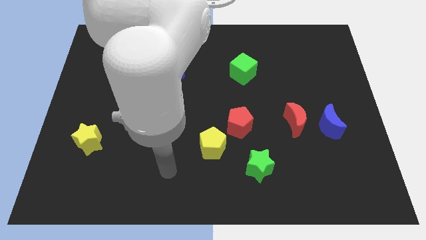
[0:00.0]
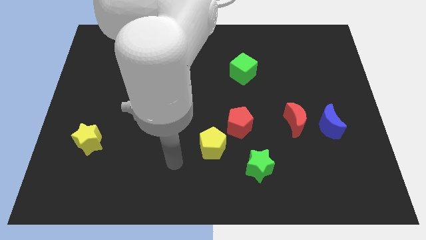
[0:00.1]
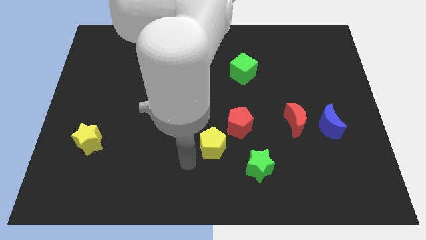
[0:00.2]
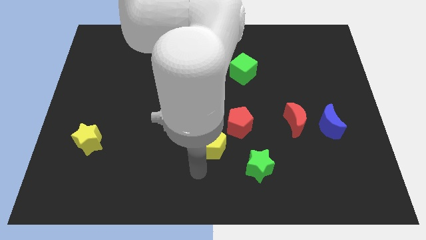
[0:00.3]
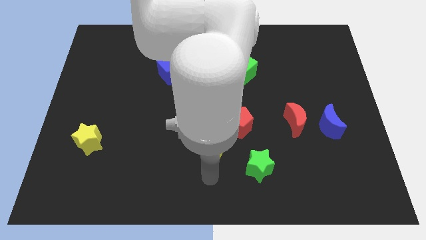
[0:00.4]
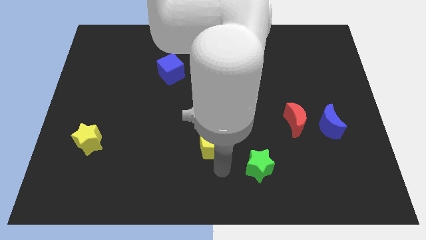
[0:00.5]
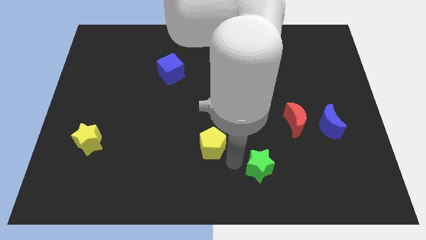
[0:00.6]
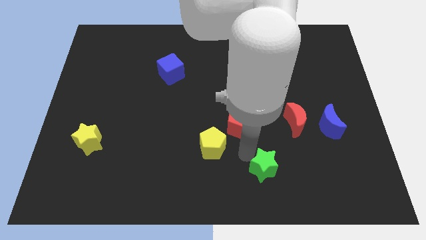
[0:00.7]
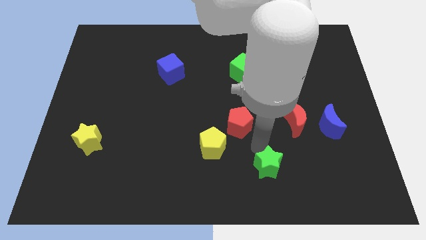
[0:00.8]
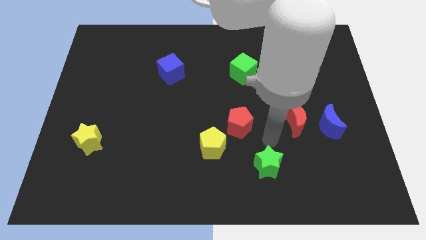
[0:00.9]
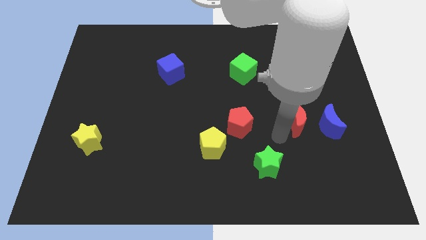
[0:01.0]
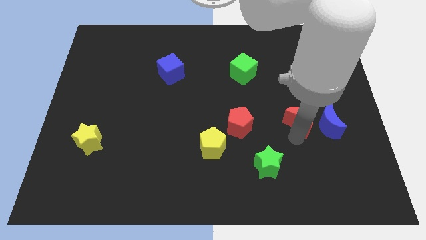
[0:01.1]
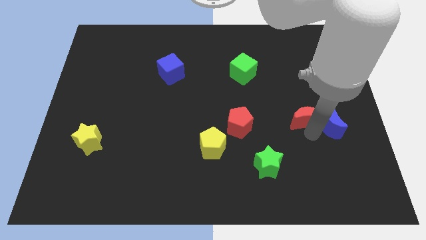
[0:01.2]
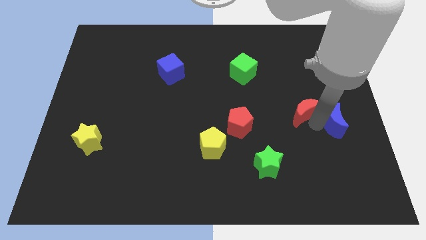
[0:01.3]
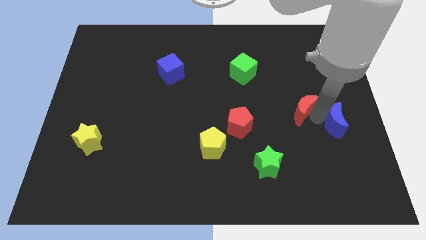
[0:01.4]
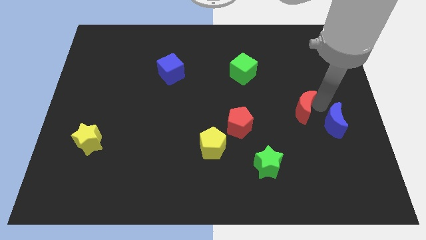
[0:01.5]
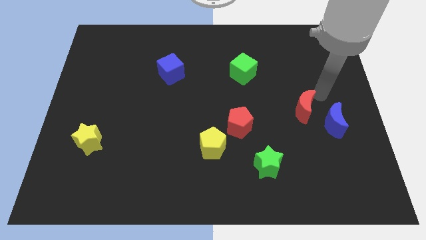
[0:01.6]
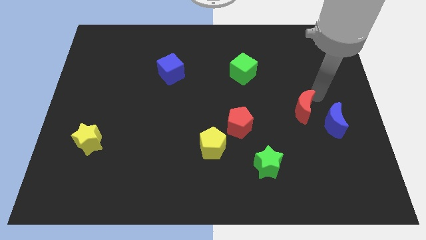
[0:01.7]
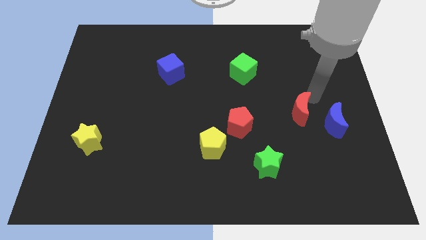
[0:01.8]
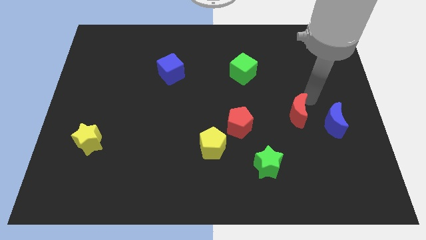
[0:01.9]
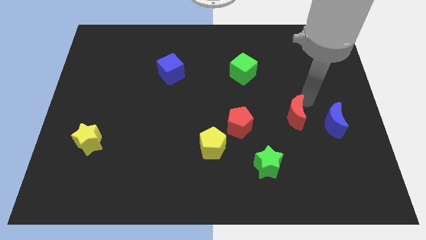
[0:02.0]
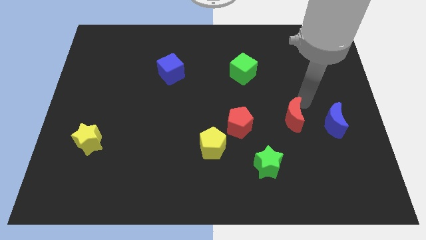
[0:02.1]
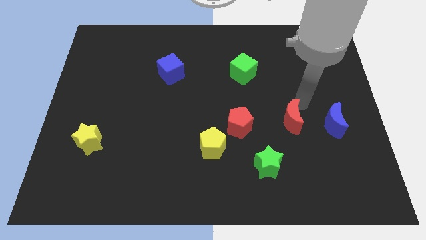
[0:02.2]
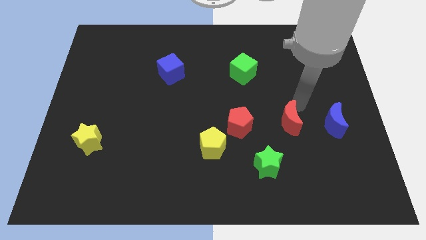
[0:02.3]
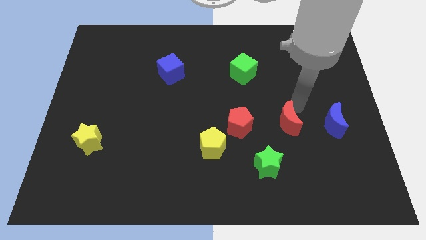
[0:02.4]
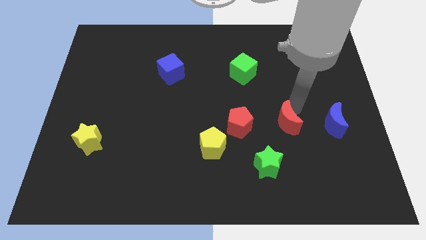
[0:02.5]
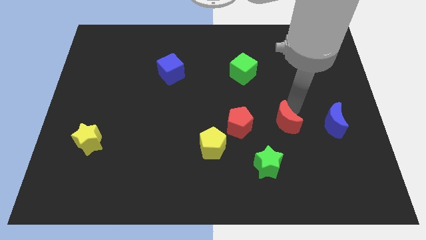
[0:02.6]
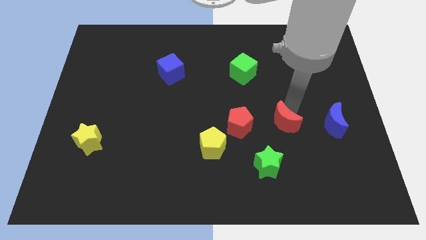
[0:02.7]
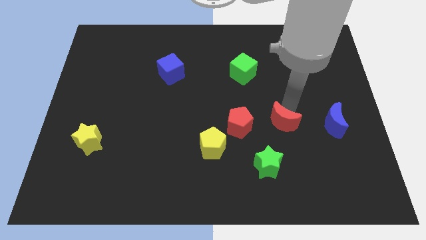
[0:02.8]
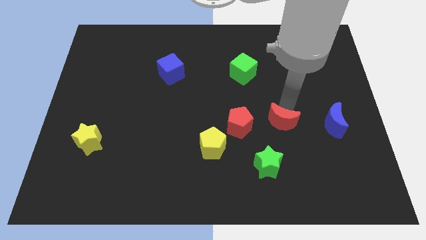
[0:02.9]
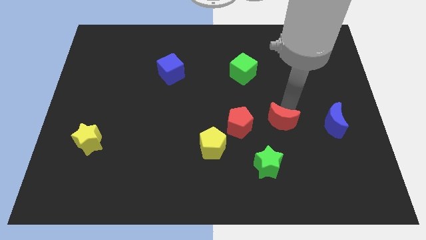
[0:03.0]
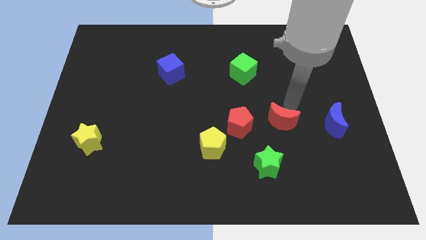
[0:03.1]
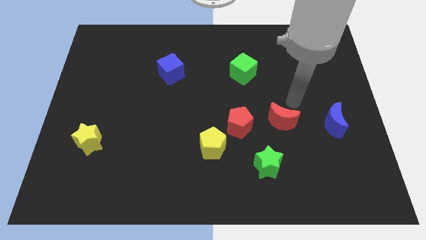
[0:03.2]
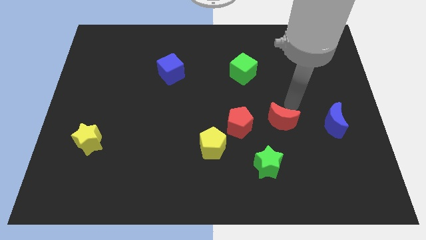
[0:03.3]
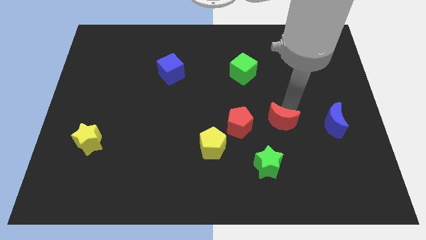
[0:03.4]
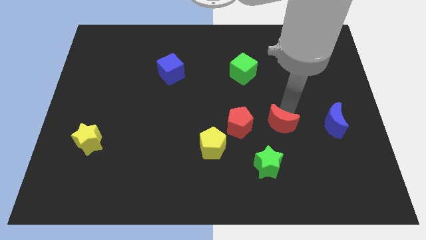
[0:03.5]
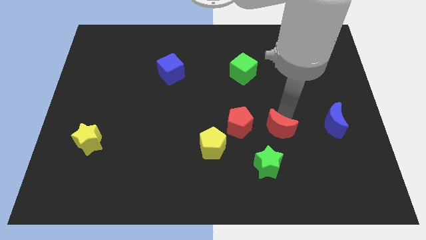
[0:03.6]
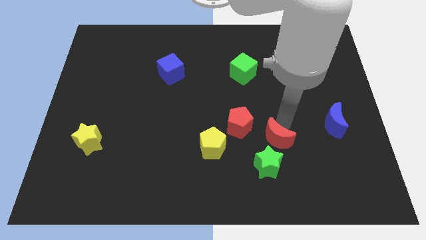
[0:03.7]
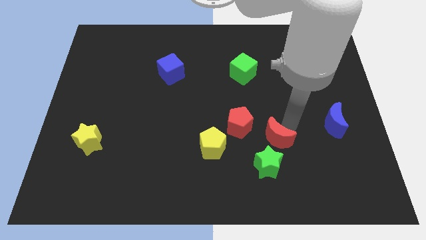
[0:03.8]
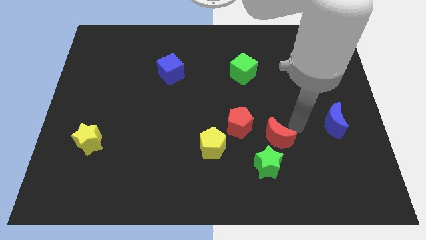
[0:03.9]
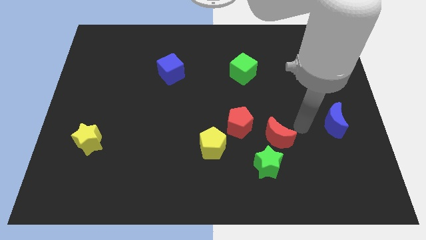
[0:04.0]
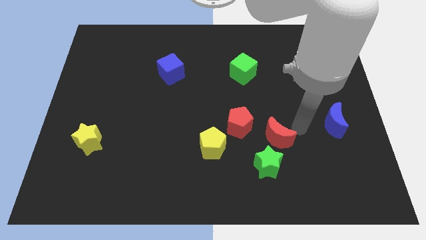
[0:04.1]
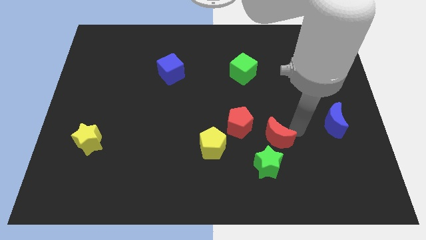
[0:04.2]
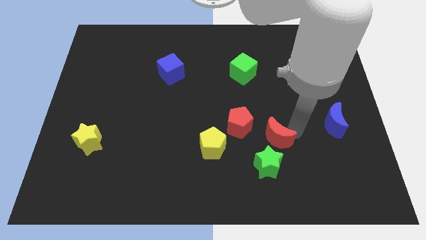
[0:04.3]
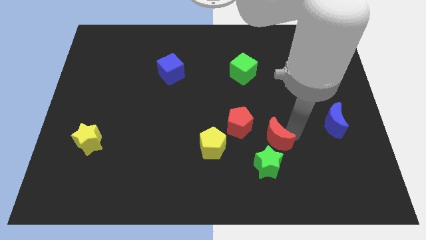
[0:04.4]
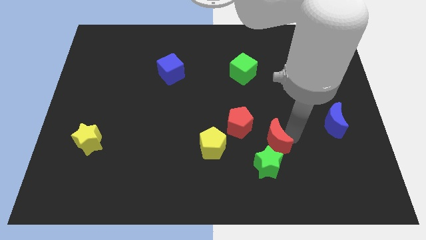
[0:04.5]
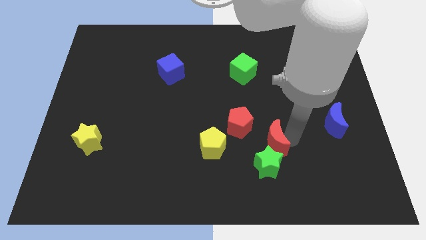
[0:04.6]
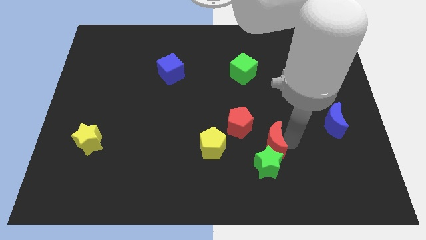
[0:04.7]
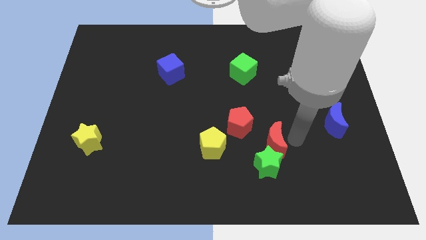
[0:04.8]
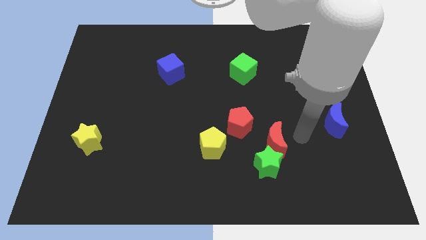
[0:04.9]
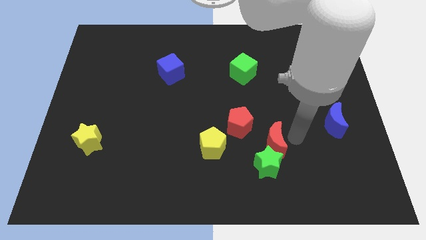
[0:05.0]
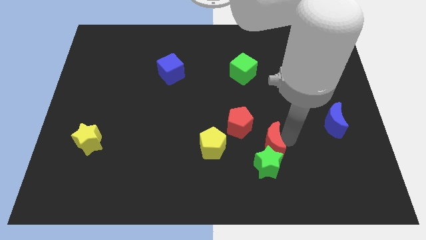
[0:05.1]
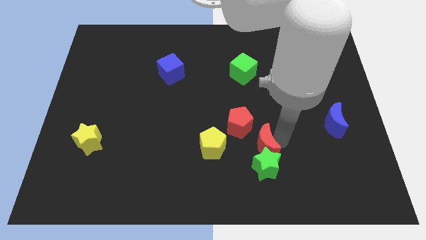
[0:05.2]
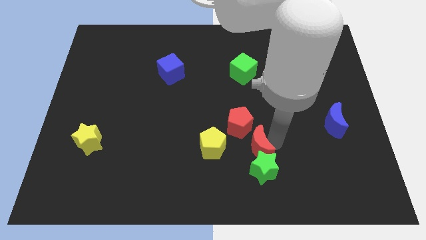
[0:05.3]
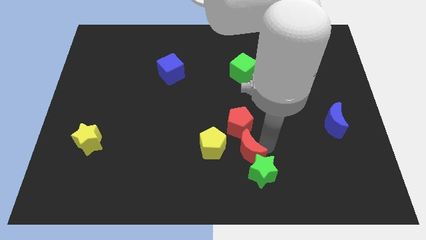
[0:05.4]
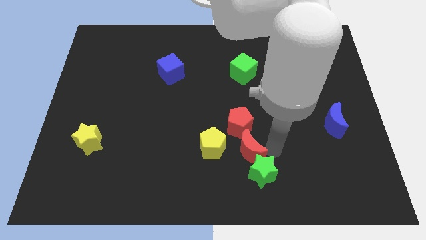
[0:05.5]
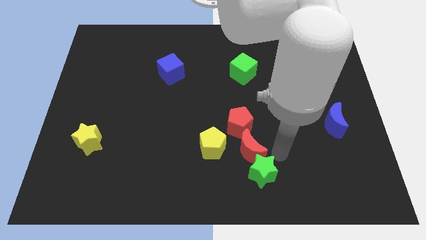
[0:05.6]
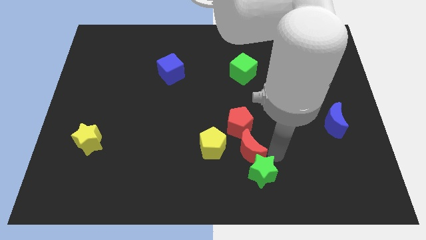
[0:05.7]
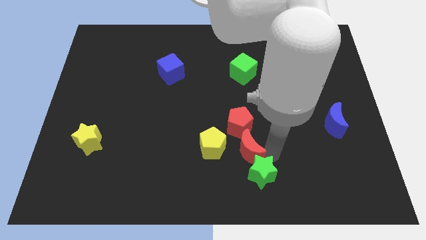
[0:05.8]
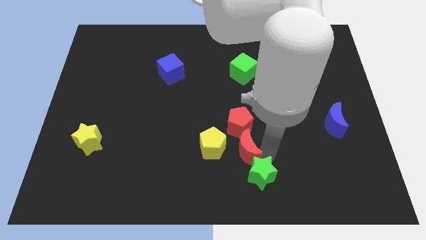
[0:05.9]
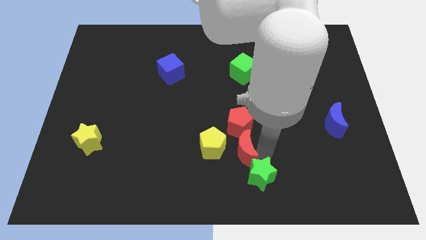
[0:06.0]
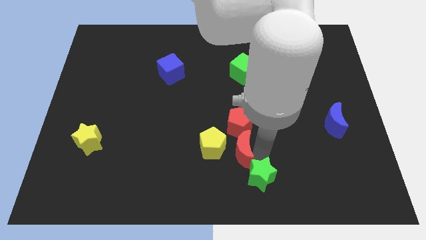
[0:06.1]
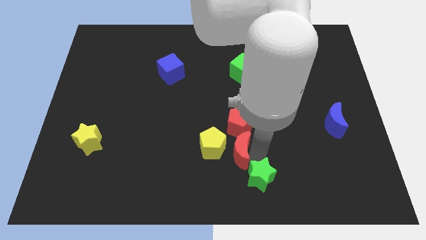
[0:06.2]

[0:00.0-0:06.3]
move the red moon close to the yellow pentagon

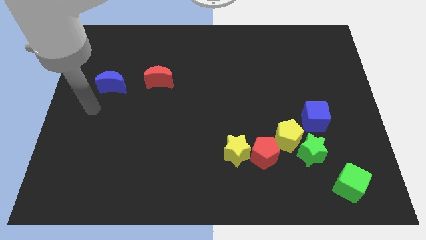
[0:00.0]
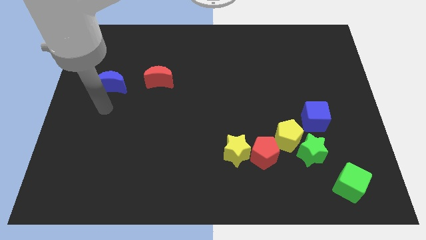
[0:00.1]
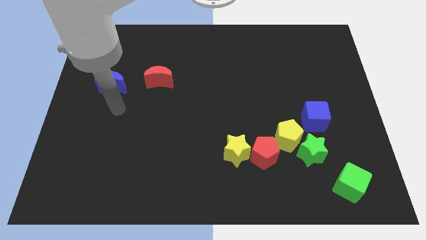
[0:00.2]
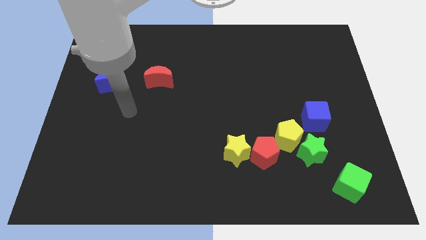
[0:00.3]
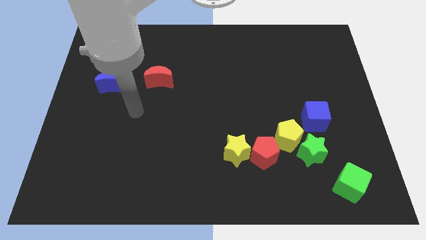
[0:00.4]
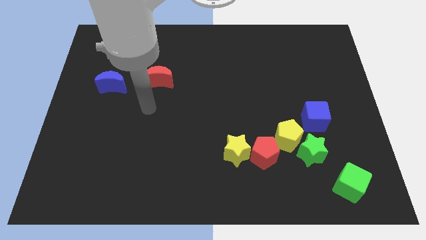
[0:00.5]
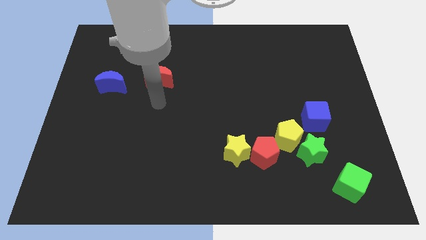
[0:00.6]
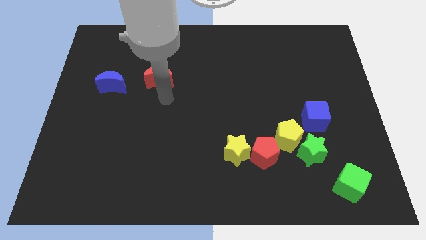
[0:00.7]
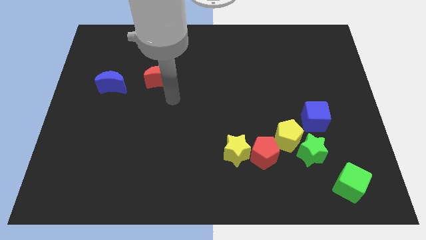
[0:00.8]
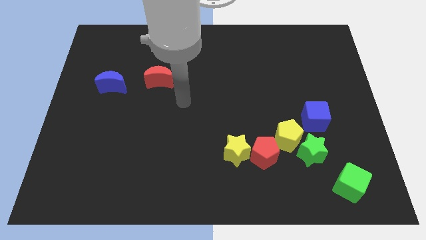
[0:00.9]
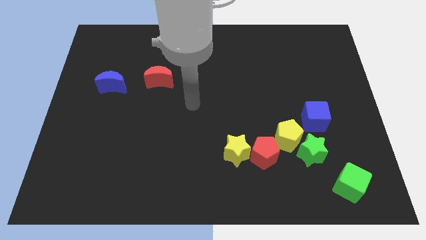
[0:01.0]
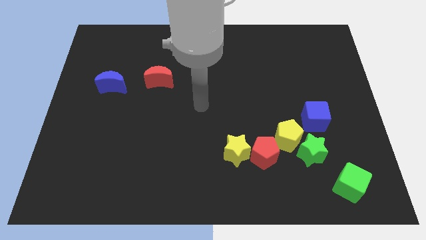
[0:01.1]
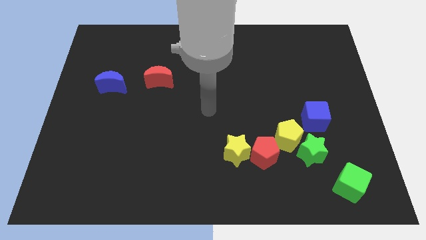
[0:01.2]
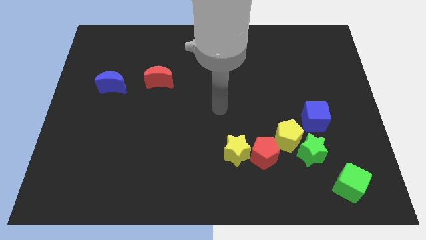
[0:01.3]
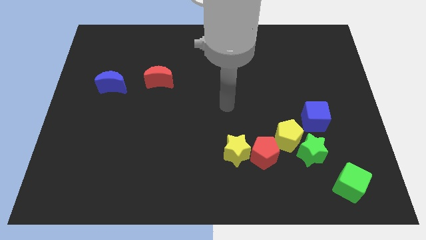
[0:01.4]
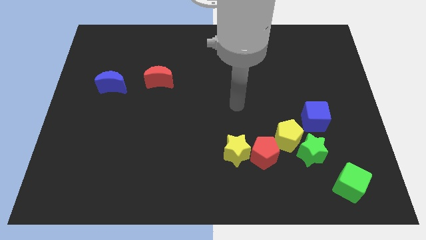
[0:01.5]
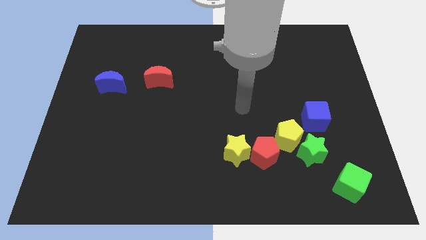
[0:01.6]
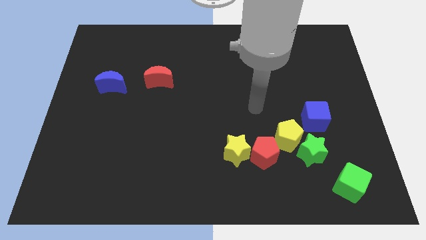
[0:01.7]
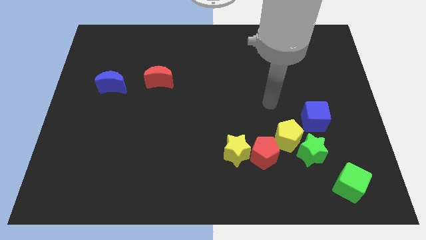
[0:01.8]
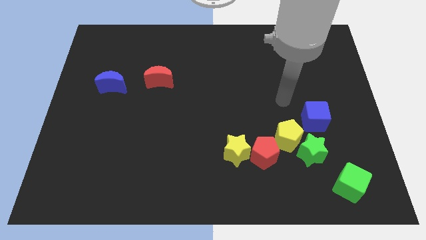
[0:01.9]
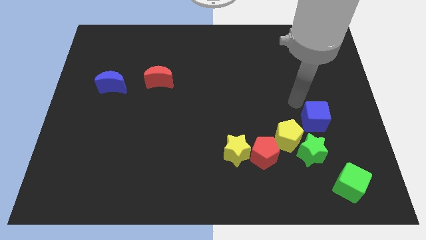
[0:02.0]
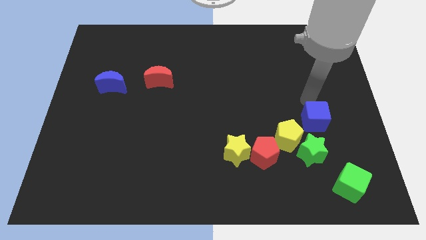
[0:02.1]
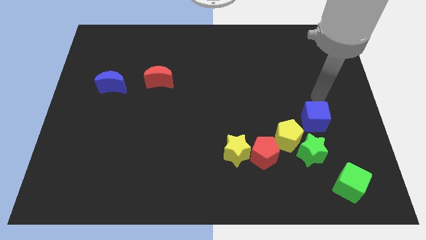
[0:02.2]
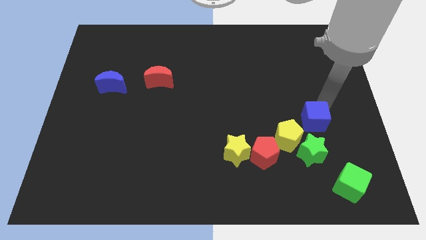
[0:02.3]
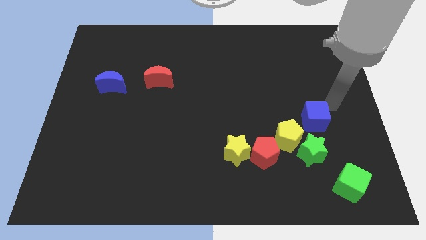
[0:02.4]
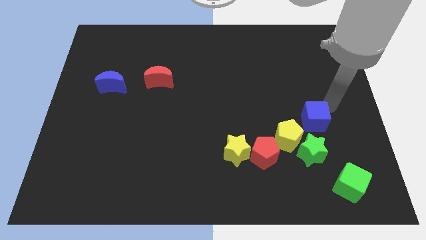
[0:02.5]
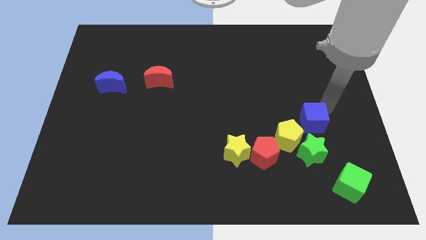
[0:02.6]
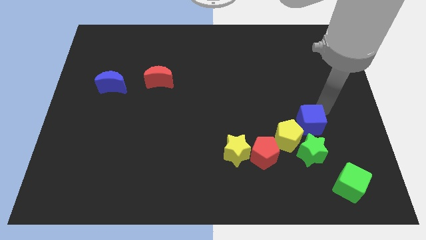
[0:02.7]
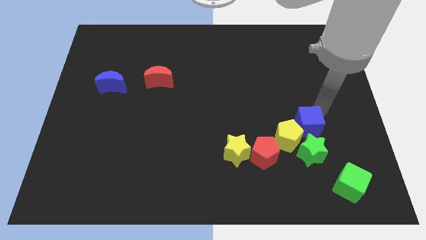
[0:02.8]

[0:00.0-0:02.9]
push the blue cube next to the yellow pentagon
